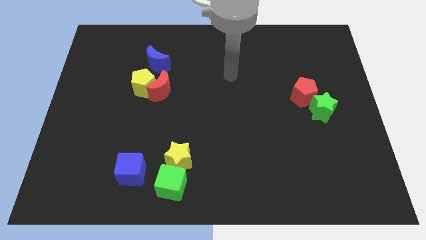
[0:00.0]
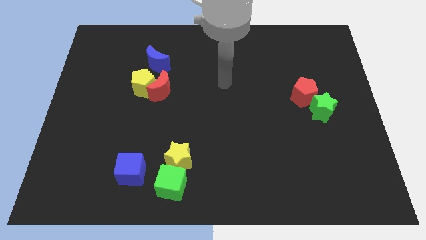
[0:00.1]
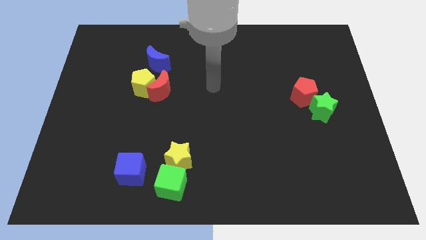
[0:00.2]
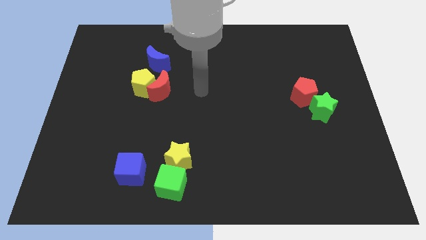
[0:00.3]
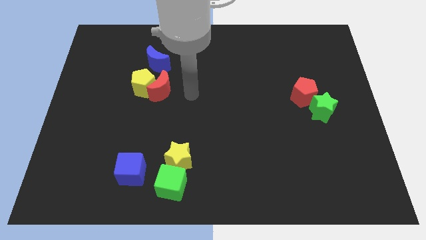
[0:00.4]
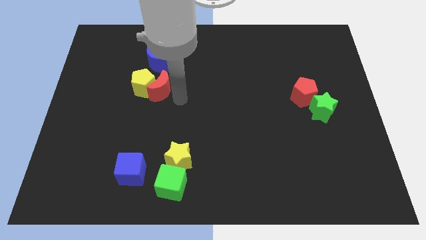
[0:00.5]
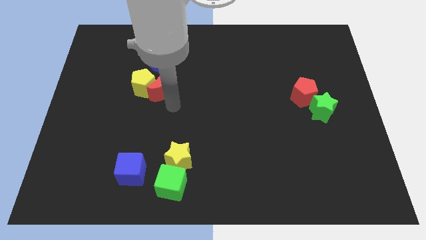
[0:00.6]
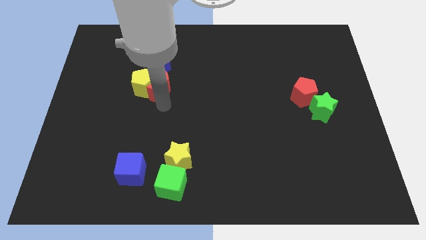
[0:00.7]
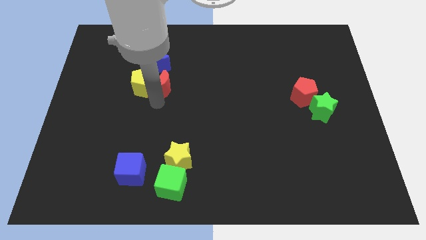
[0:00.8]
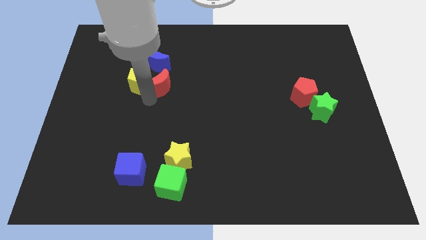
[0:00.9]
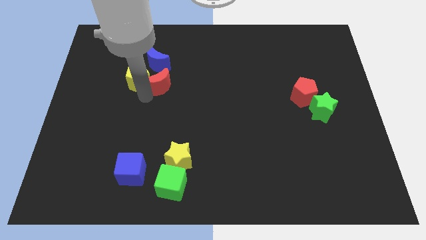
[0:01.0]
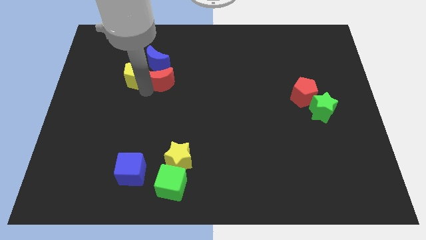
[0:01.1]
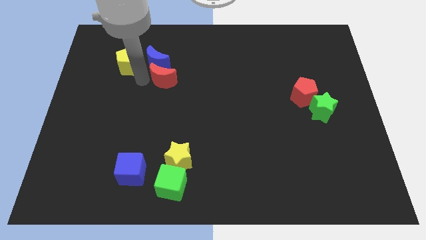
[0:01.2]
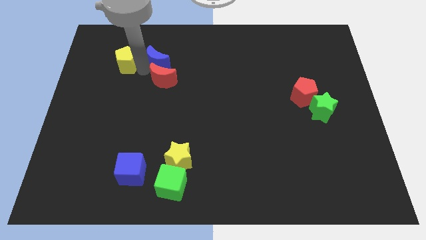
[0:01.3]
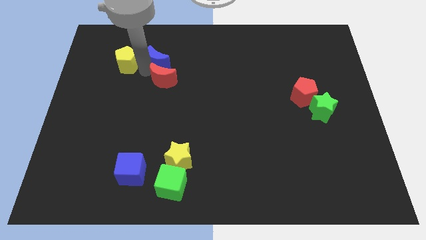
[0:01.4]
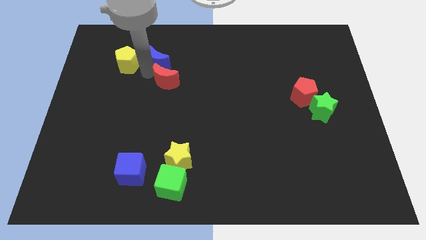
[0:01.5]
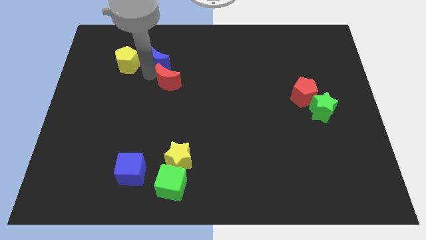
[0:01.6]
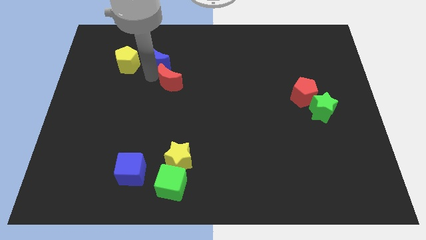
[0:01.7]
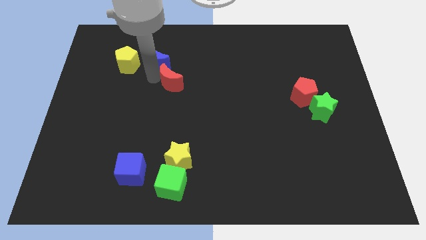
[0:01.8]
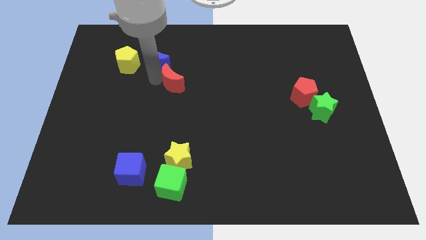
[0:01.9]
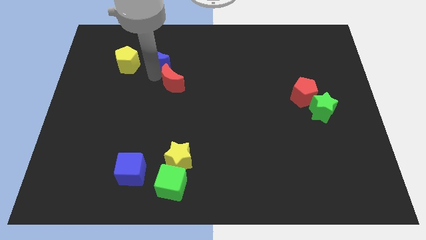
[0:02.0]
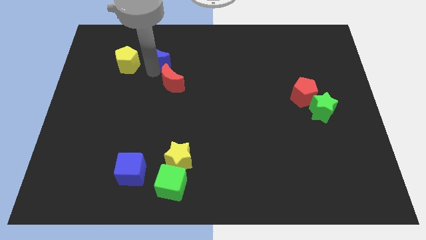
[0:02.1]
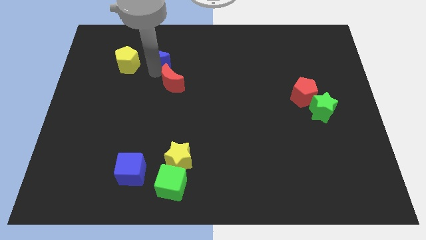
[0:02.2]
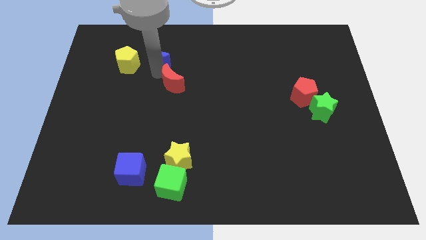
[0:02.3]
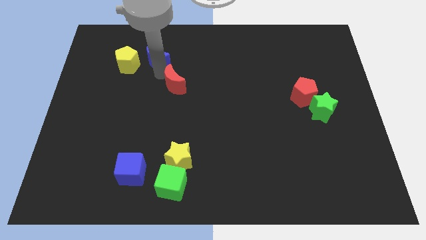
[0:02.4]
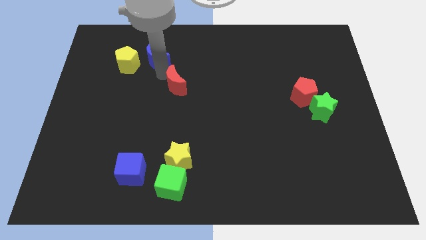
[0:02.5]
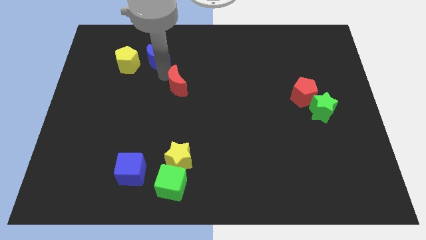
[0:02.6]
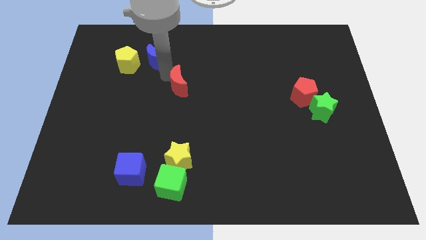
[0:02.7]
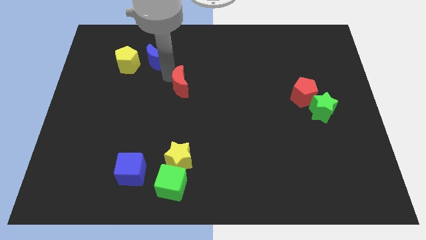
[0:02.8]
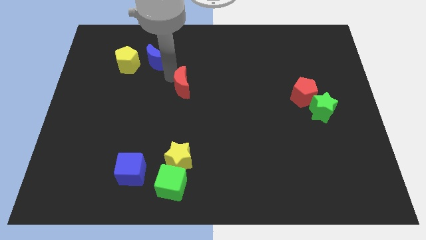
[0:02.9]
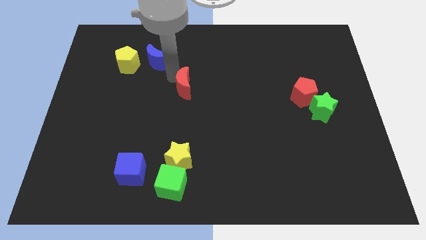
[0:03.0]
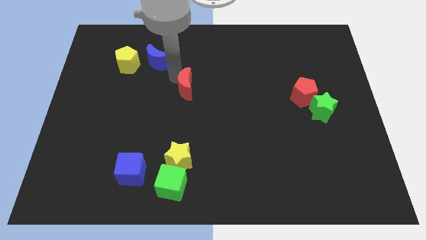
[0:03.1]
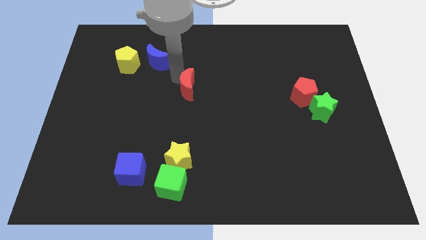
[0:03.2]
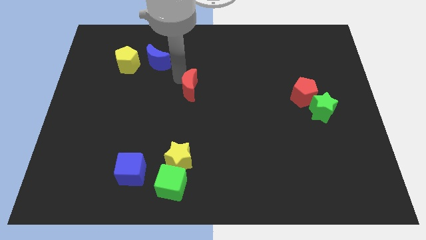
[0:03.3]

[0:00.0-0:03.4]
slightly slide the red moon to the right

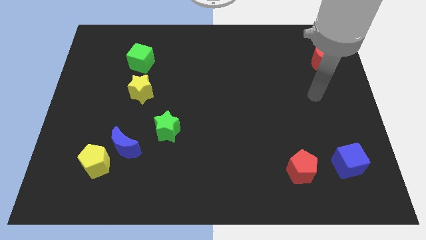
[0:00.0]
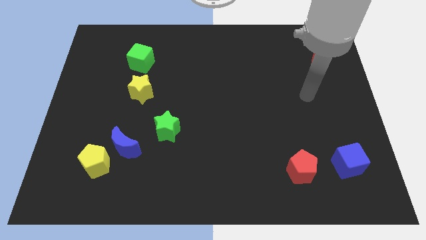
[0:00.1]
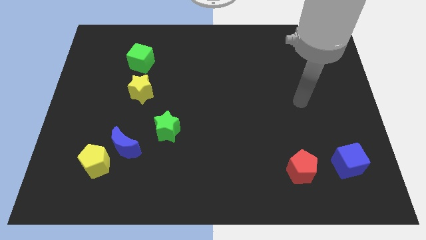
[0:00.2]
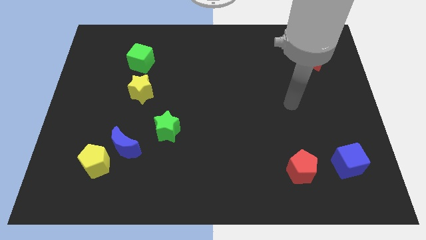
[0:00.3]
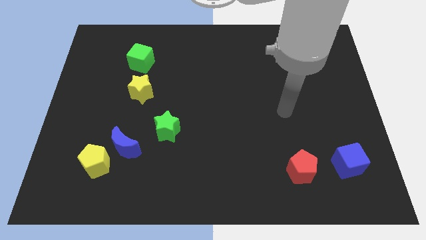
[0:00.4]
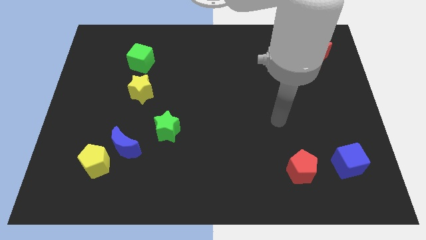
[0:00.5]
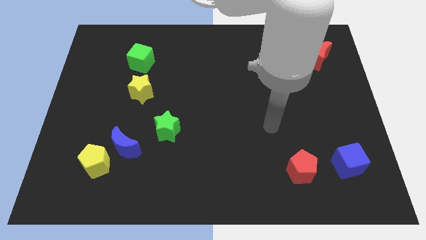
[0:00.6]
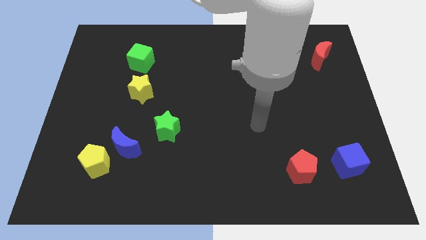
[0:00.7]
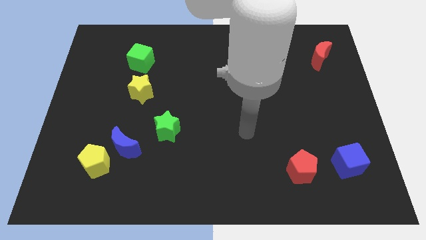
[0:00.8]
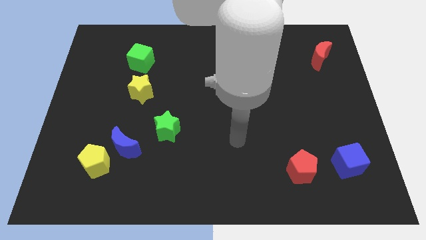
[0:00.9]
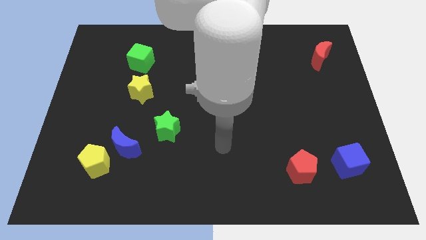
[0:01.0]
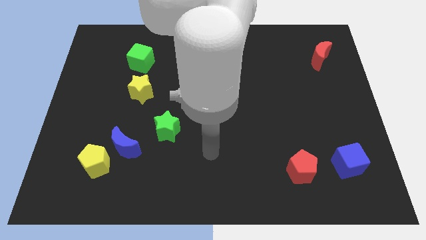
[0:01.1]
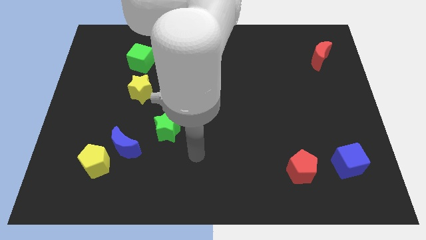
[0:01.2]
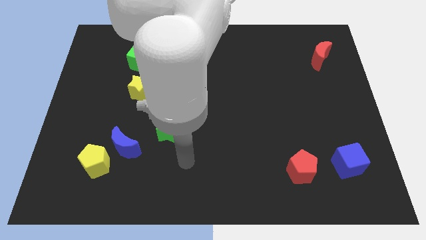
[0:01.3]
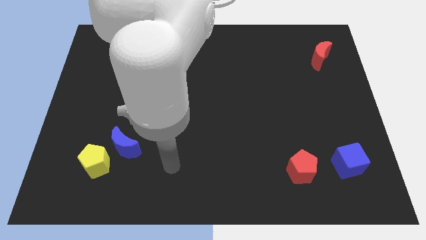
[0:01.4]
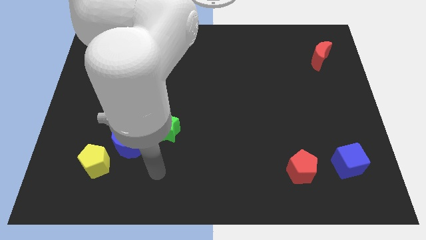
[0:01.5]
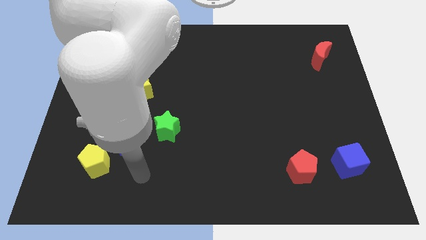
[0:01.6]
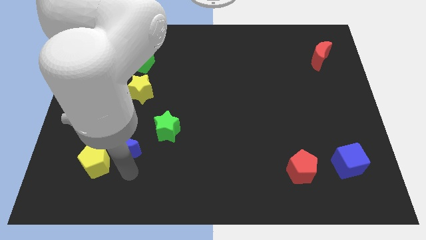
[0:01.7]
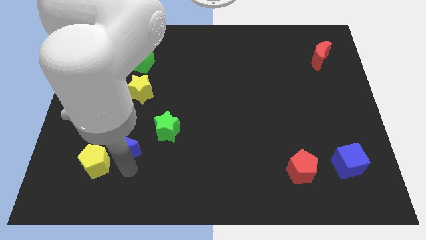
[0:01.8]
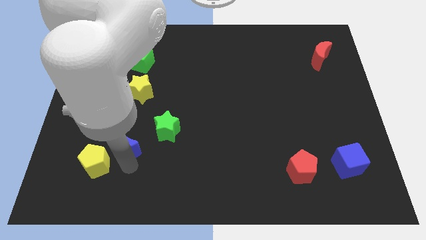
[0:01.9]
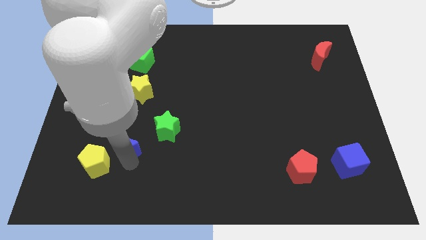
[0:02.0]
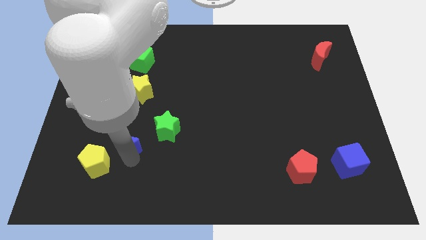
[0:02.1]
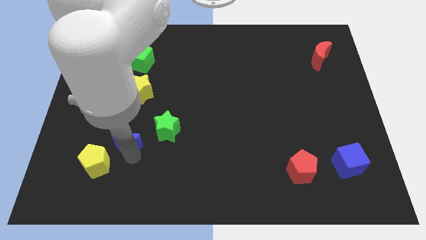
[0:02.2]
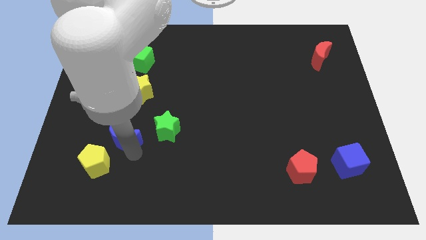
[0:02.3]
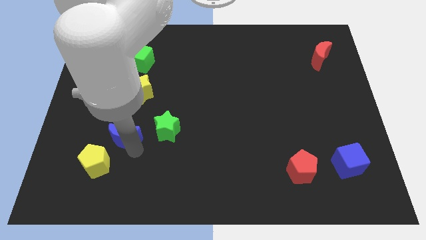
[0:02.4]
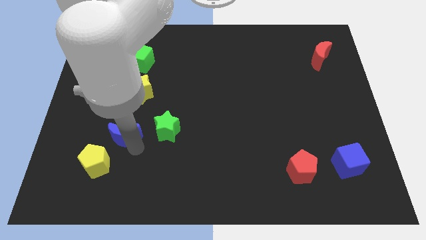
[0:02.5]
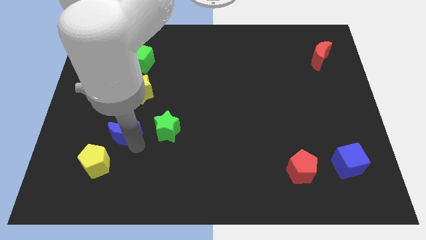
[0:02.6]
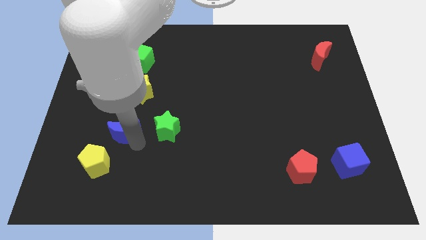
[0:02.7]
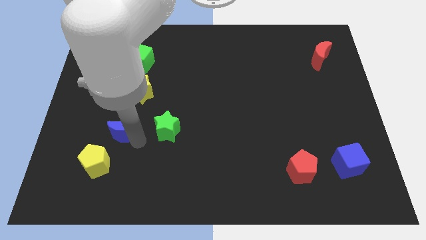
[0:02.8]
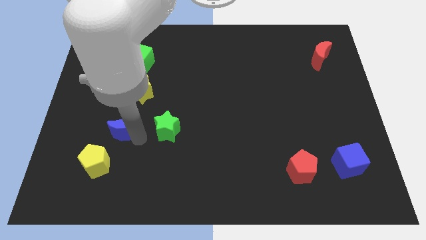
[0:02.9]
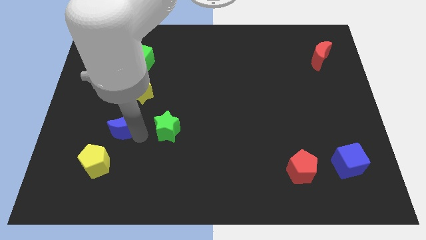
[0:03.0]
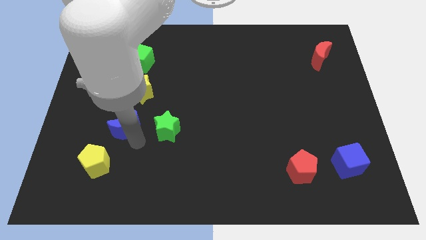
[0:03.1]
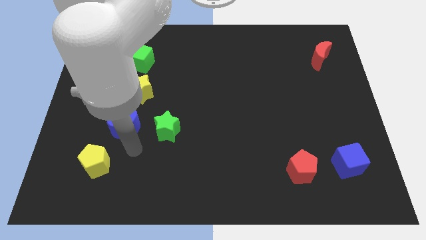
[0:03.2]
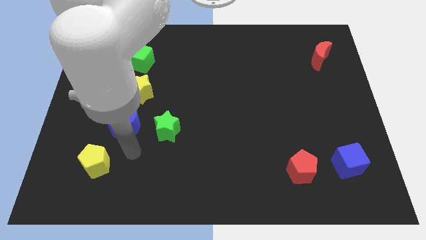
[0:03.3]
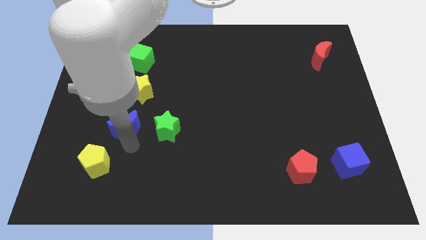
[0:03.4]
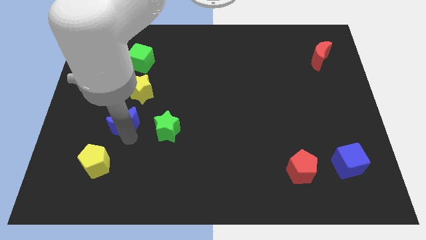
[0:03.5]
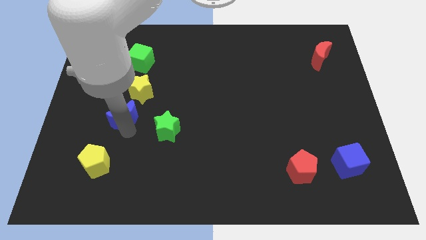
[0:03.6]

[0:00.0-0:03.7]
slide the blue moon a little upwards

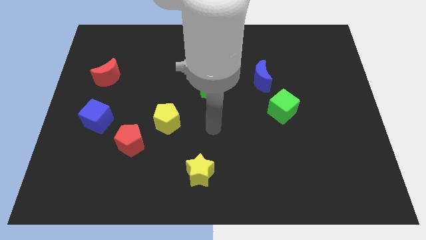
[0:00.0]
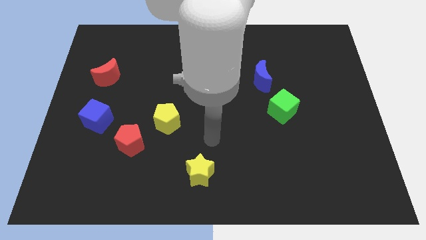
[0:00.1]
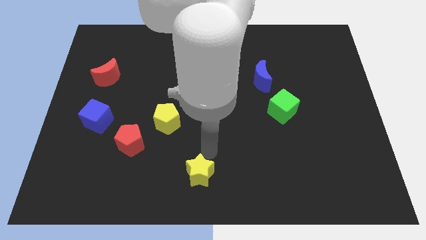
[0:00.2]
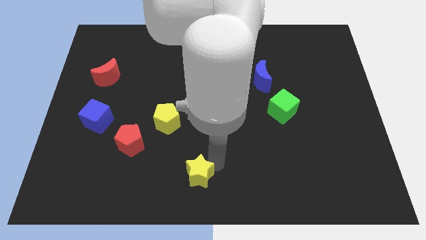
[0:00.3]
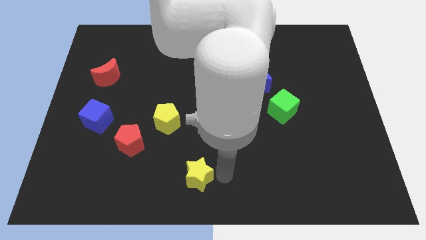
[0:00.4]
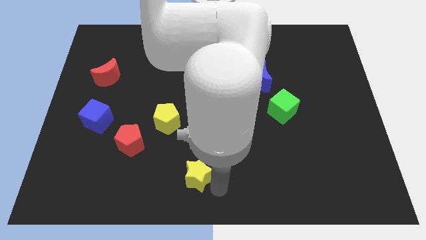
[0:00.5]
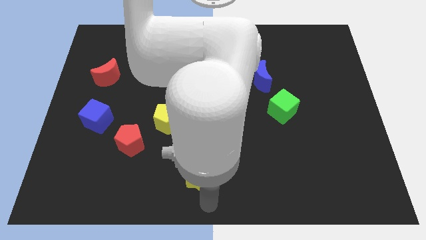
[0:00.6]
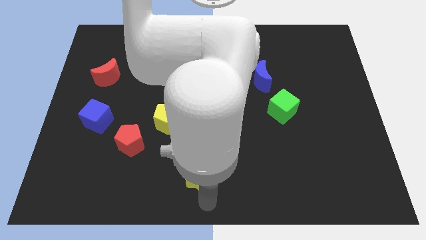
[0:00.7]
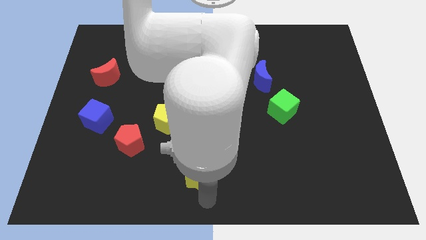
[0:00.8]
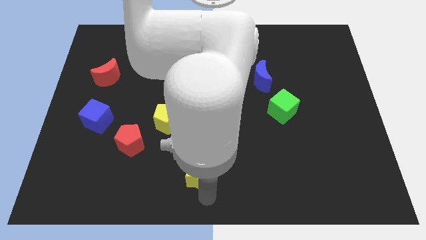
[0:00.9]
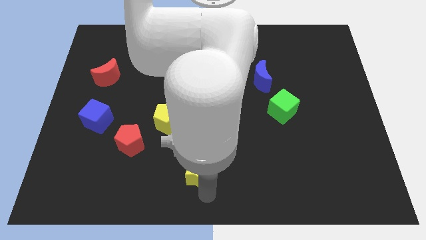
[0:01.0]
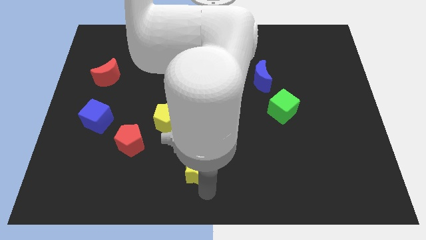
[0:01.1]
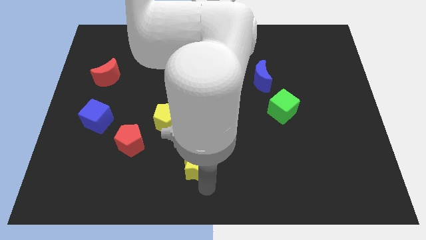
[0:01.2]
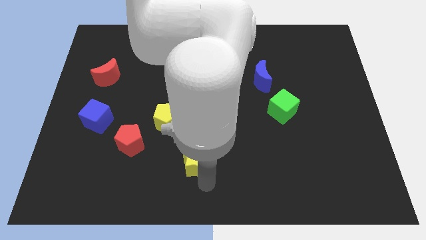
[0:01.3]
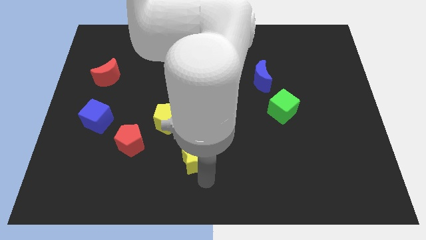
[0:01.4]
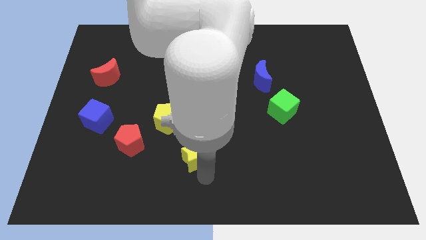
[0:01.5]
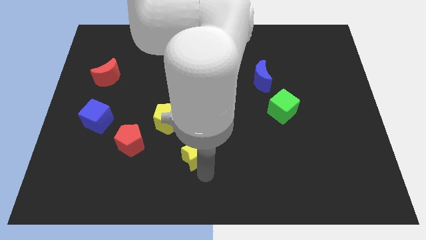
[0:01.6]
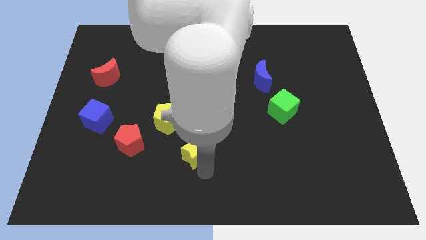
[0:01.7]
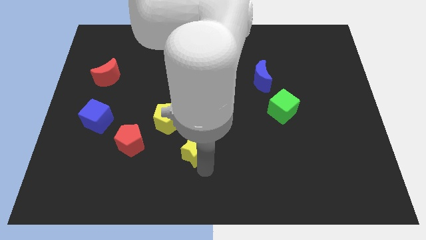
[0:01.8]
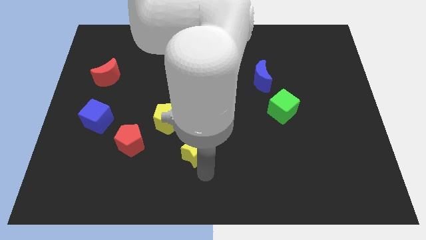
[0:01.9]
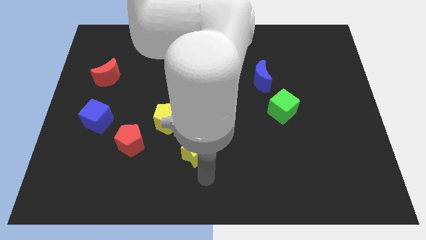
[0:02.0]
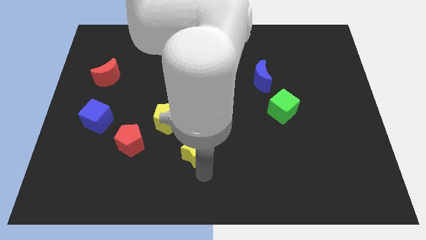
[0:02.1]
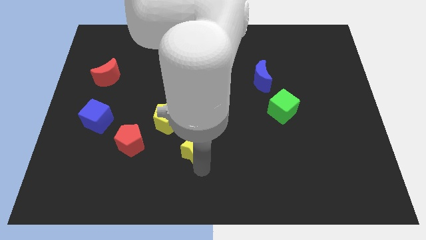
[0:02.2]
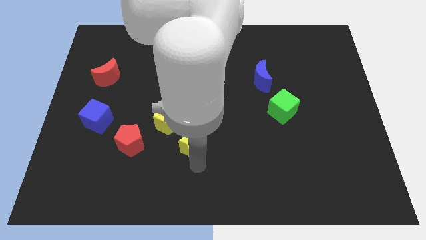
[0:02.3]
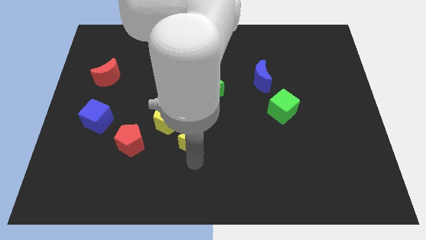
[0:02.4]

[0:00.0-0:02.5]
slightly push the yellow star up
